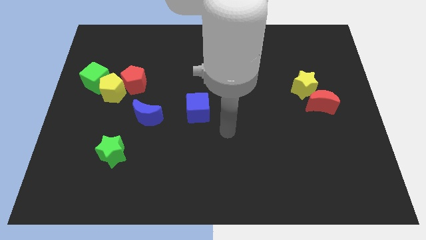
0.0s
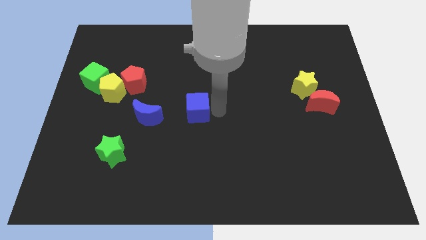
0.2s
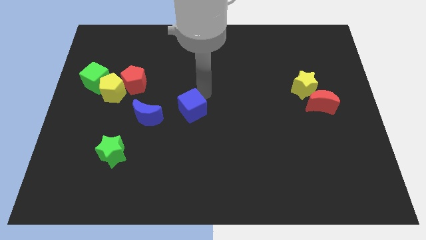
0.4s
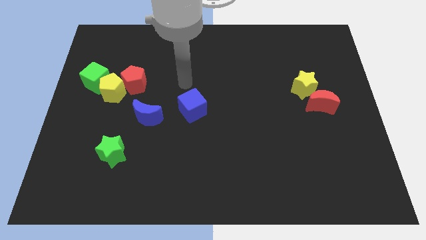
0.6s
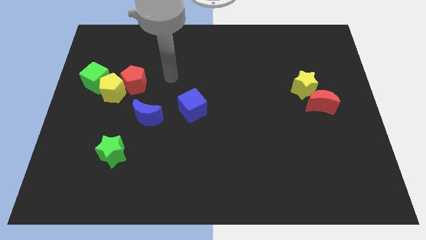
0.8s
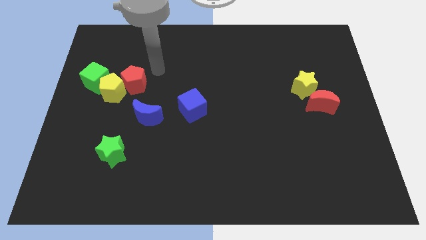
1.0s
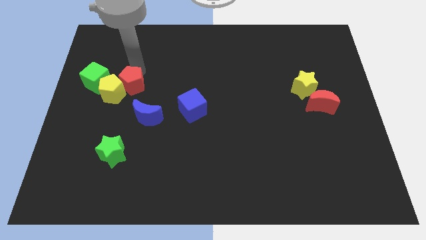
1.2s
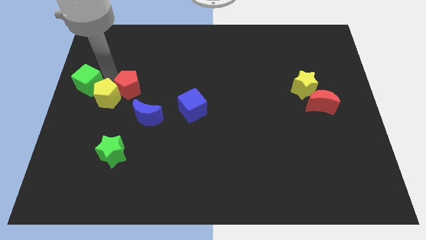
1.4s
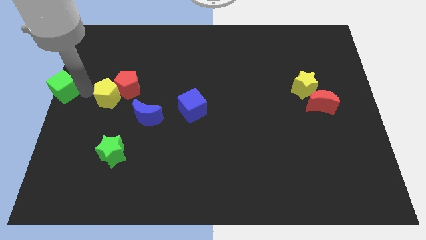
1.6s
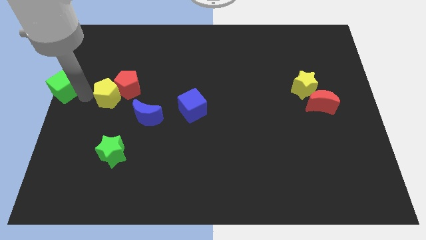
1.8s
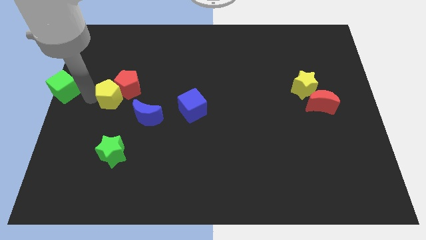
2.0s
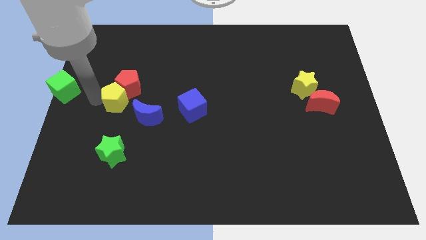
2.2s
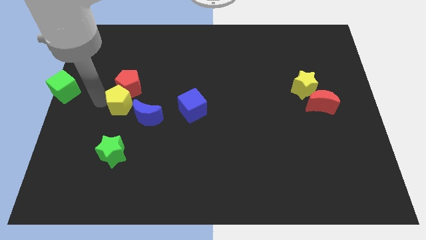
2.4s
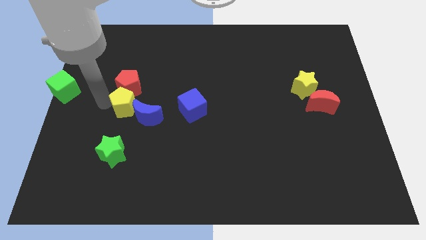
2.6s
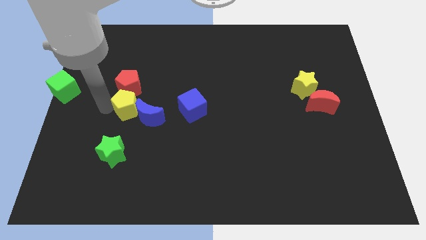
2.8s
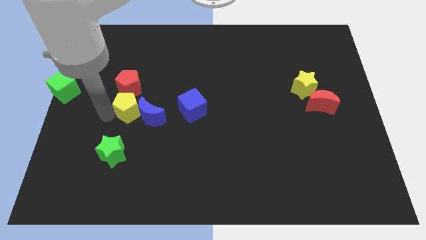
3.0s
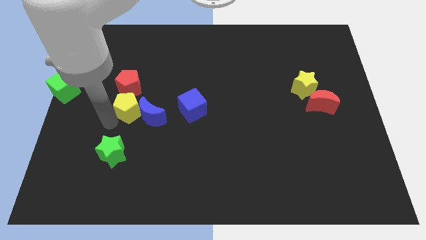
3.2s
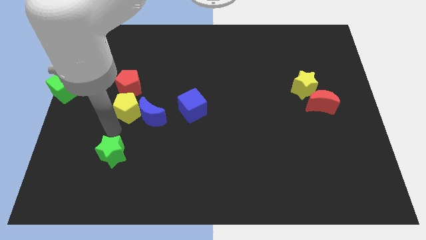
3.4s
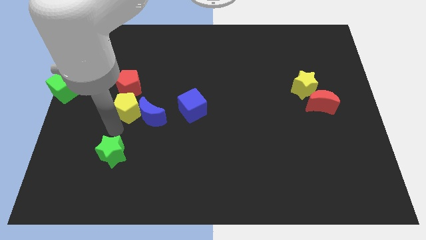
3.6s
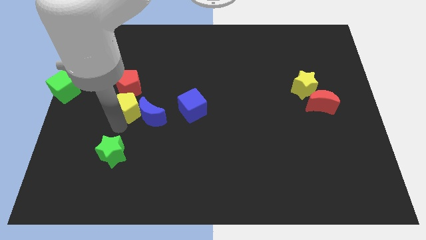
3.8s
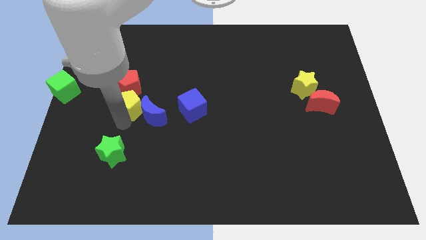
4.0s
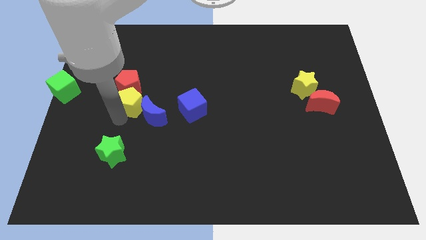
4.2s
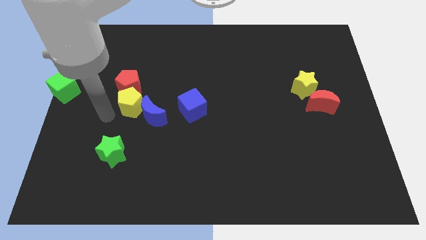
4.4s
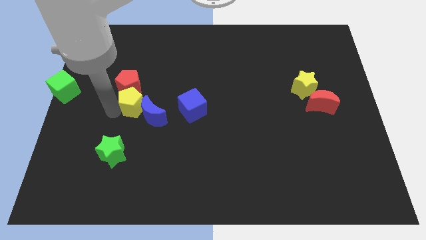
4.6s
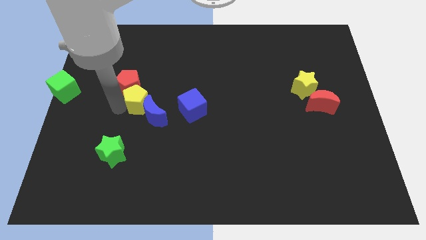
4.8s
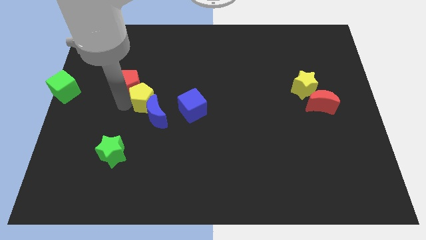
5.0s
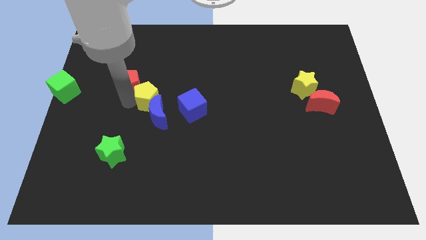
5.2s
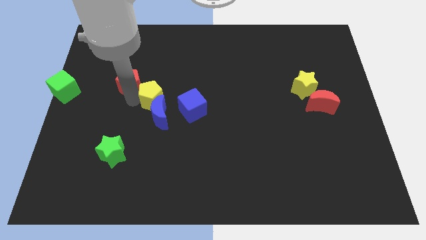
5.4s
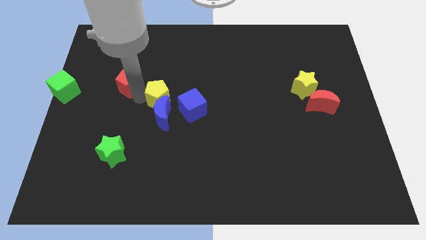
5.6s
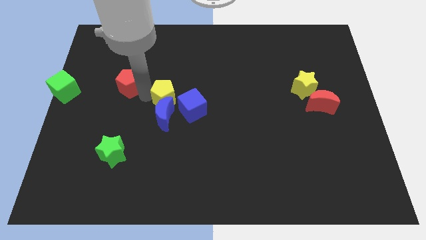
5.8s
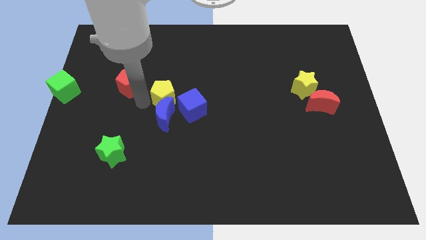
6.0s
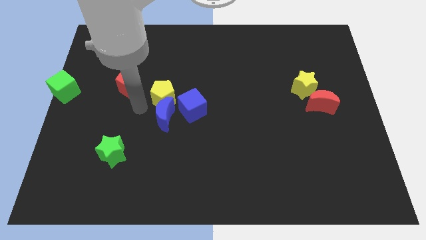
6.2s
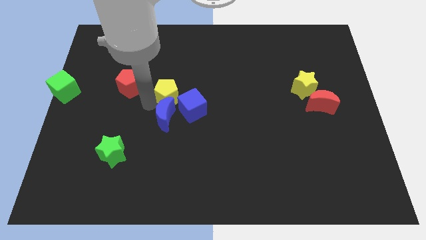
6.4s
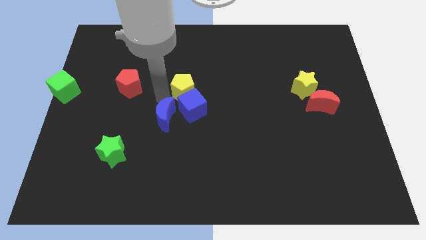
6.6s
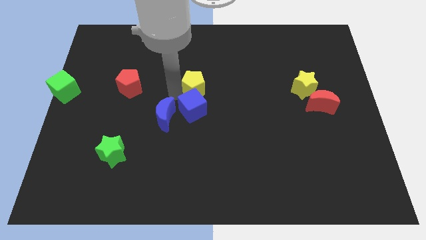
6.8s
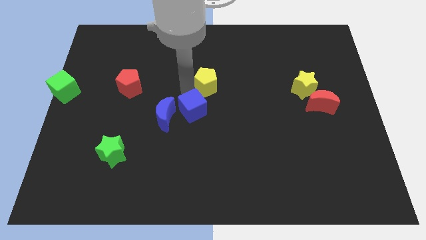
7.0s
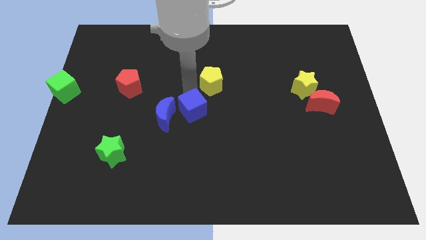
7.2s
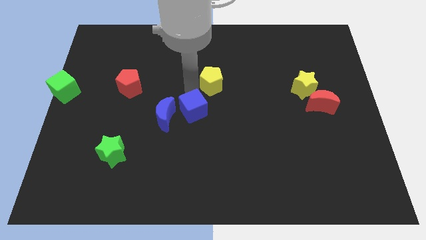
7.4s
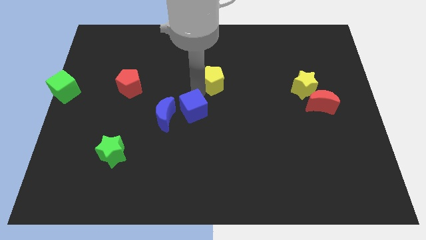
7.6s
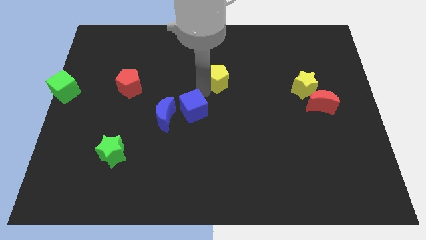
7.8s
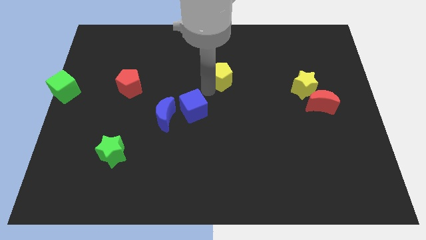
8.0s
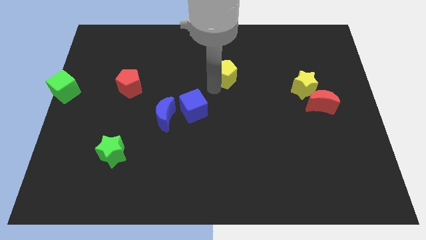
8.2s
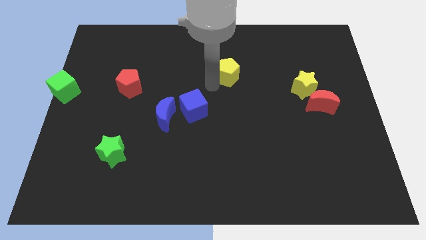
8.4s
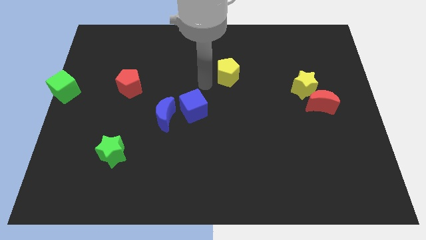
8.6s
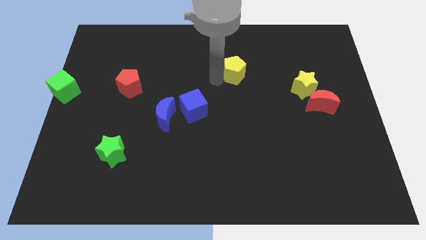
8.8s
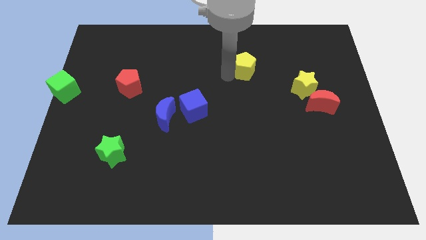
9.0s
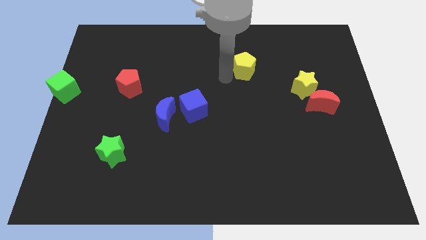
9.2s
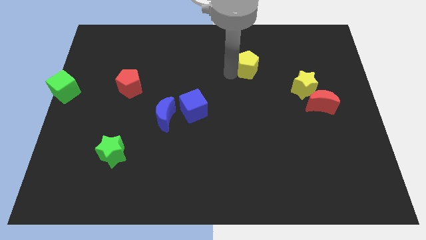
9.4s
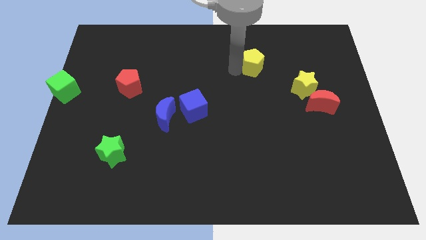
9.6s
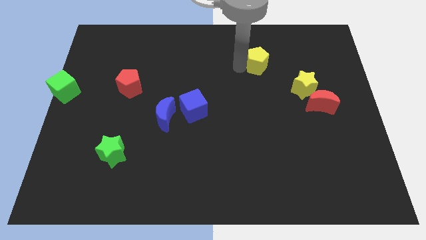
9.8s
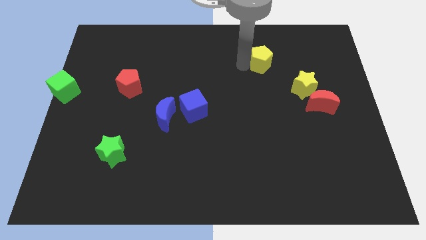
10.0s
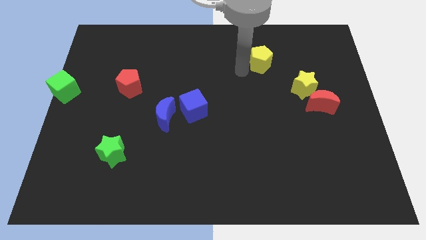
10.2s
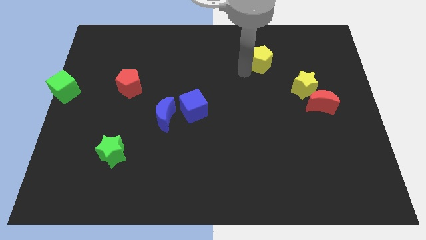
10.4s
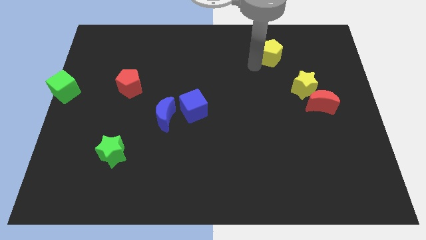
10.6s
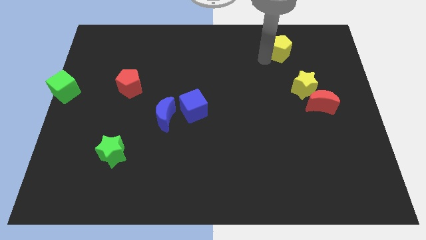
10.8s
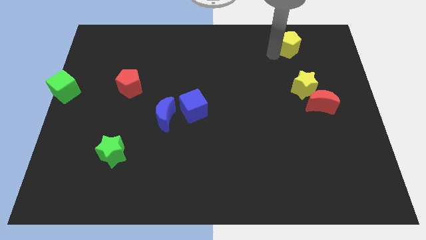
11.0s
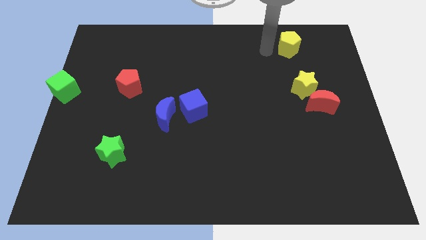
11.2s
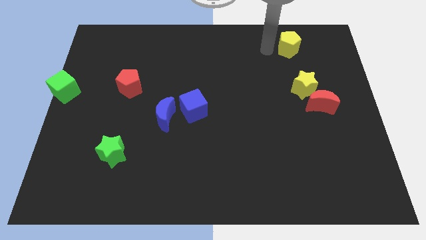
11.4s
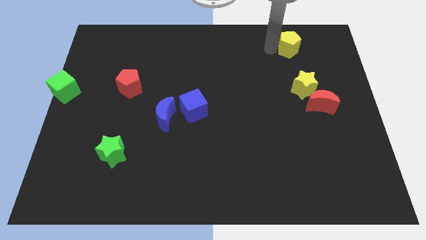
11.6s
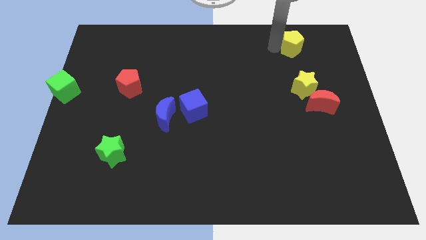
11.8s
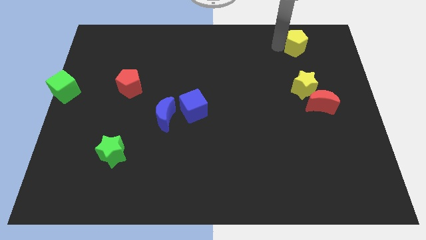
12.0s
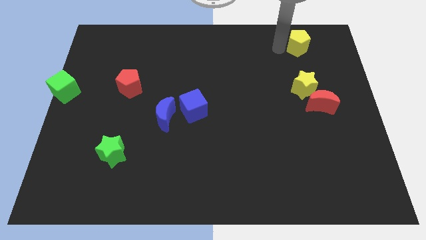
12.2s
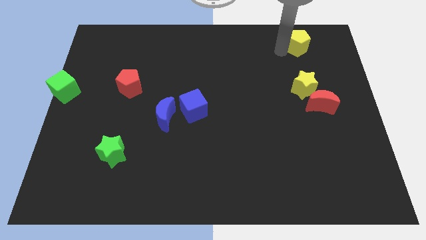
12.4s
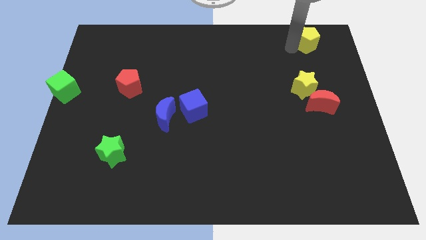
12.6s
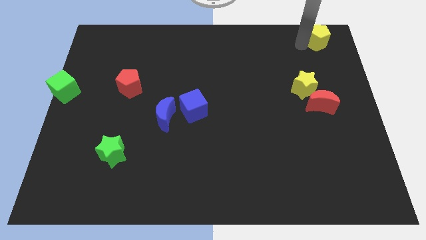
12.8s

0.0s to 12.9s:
move the yellow pentagon to the top right

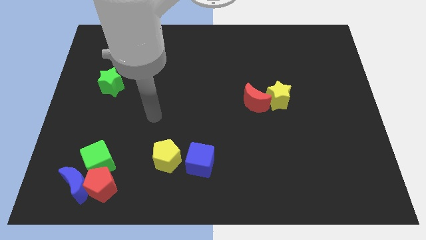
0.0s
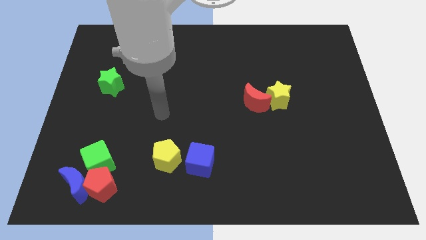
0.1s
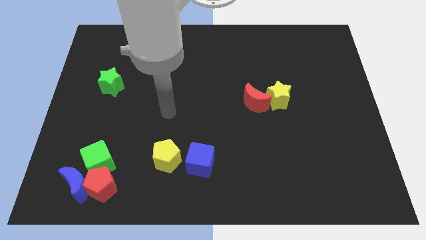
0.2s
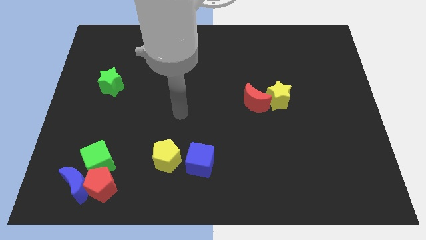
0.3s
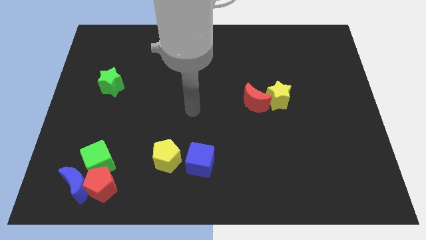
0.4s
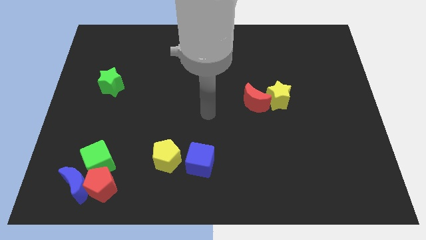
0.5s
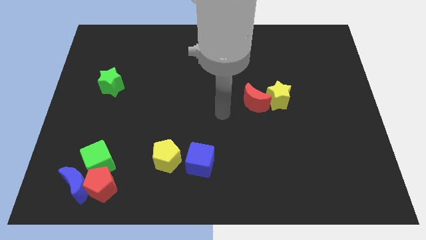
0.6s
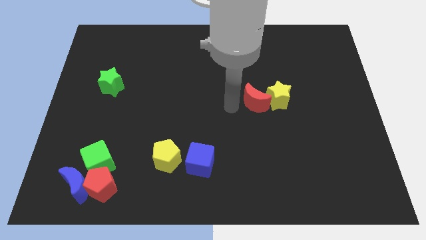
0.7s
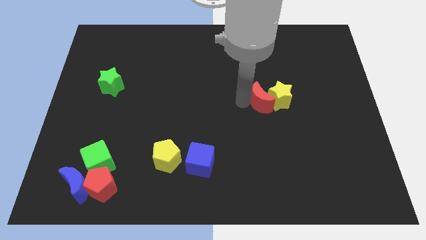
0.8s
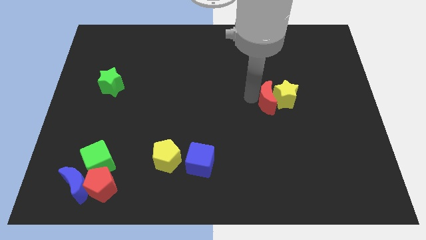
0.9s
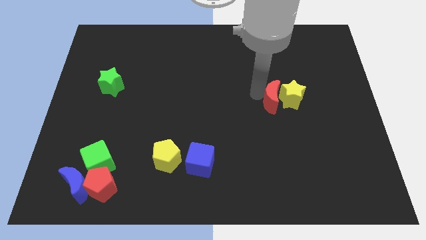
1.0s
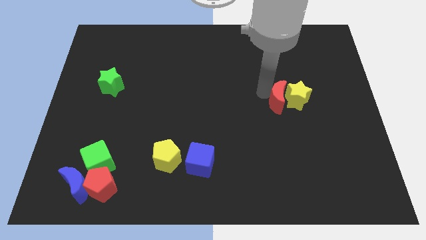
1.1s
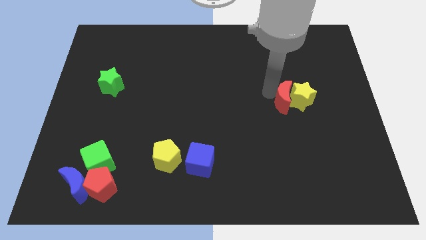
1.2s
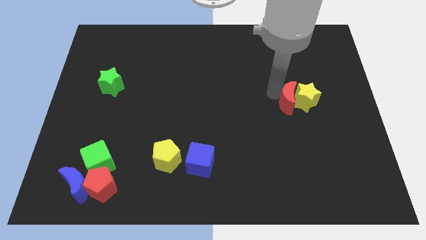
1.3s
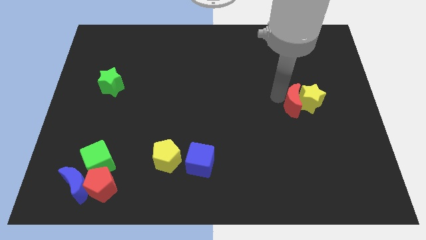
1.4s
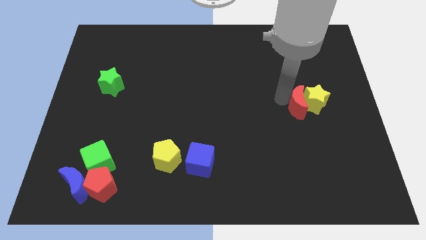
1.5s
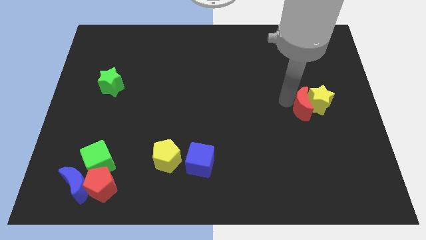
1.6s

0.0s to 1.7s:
move the yellow star to the center right
